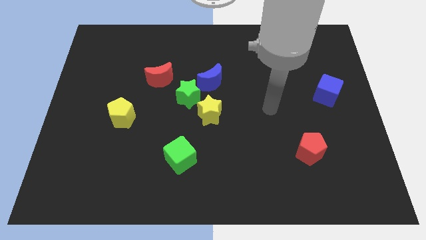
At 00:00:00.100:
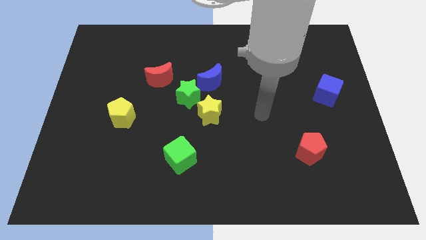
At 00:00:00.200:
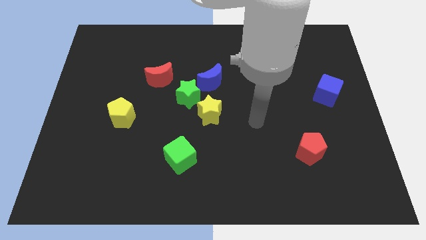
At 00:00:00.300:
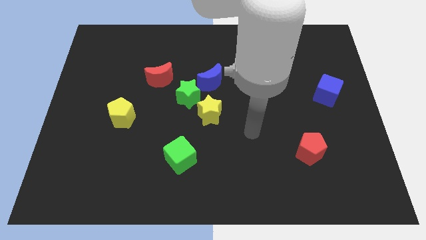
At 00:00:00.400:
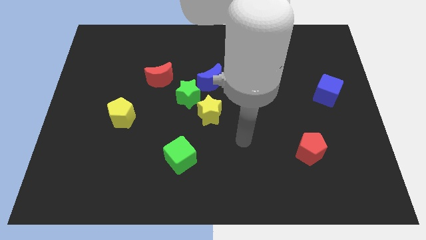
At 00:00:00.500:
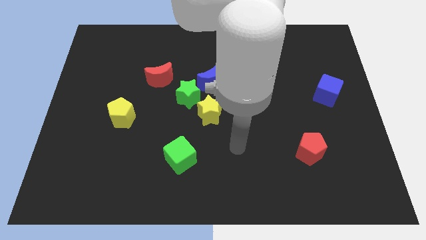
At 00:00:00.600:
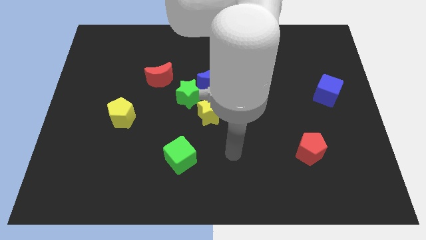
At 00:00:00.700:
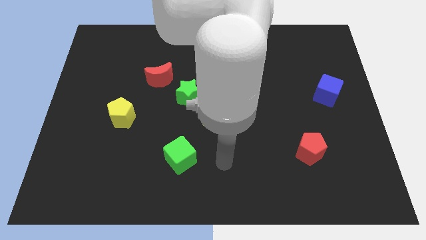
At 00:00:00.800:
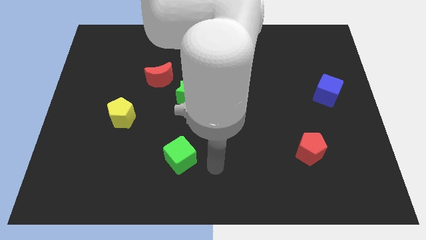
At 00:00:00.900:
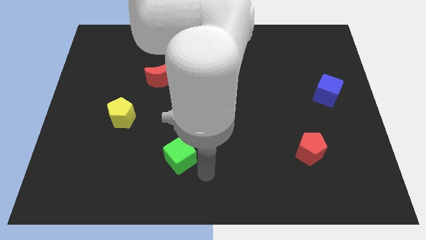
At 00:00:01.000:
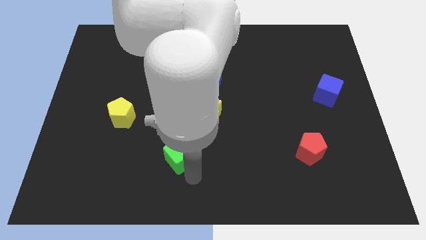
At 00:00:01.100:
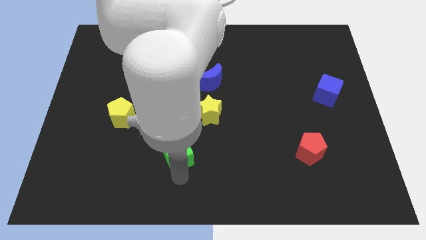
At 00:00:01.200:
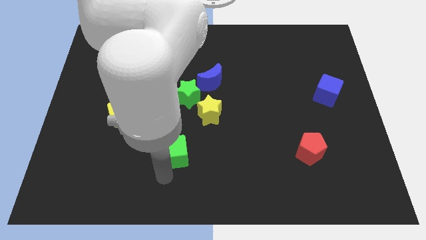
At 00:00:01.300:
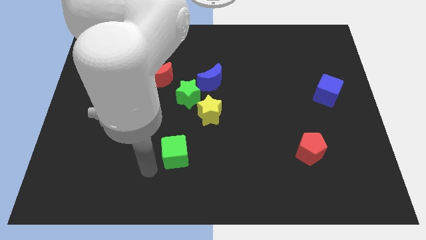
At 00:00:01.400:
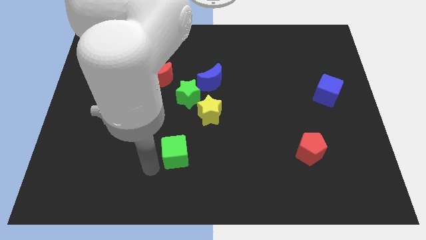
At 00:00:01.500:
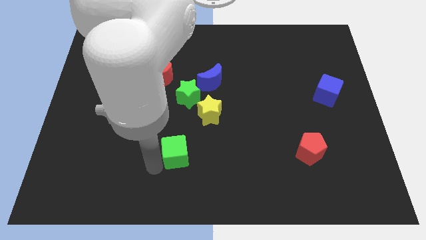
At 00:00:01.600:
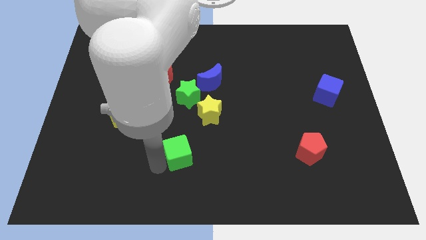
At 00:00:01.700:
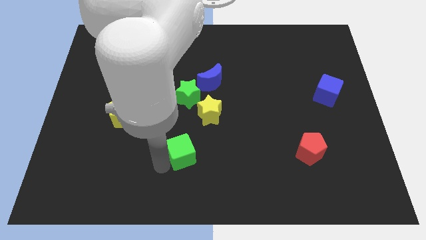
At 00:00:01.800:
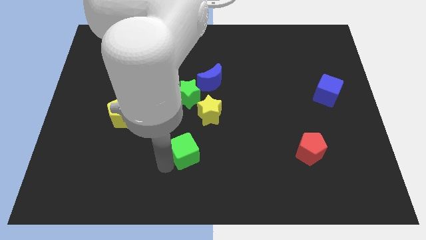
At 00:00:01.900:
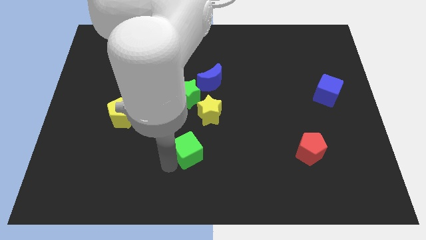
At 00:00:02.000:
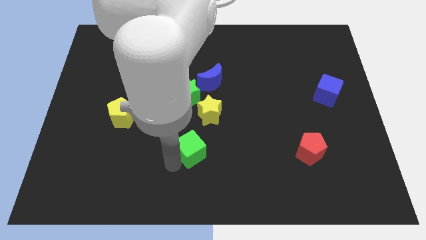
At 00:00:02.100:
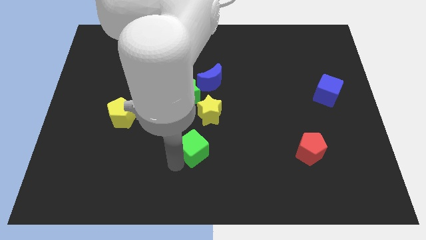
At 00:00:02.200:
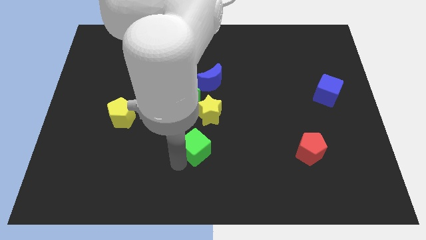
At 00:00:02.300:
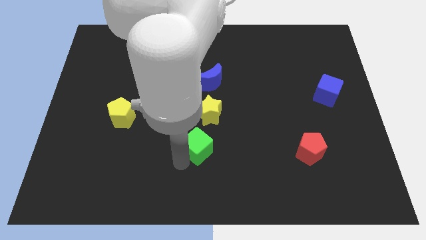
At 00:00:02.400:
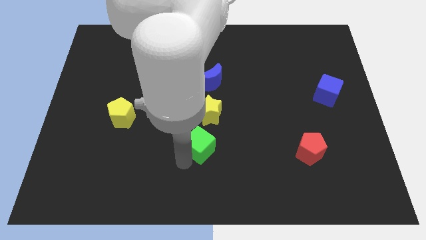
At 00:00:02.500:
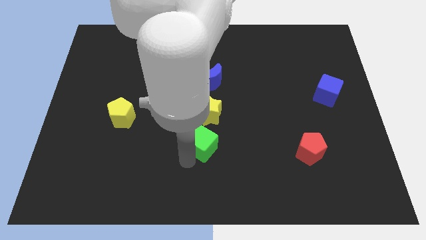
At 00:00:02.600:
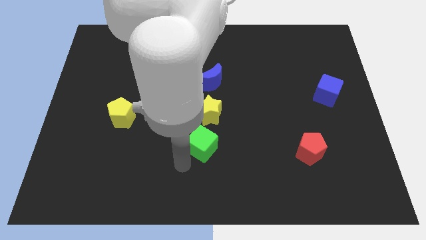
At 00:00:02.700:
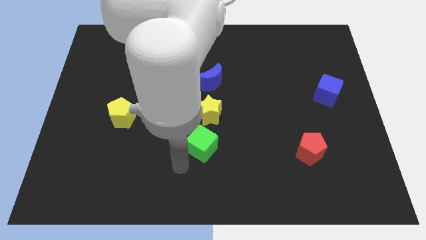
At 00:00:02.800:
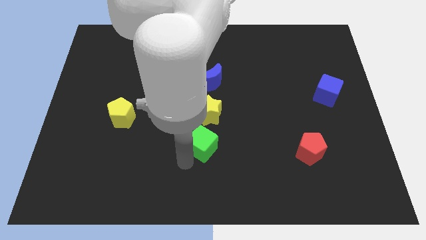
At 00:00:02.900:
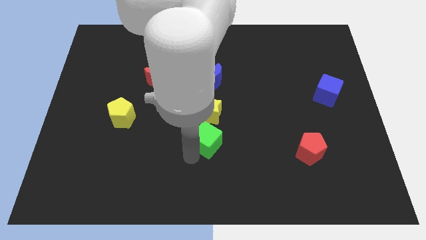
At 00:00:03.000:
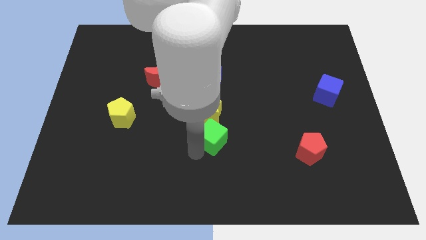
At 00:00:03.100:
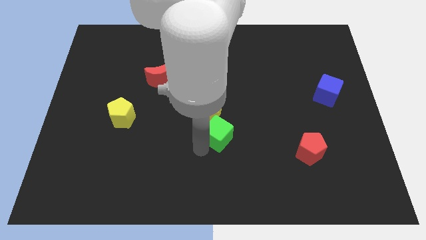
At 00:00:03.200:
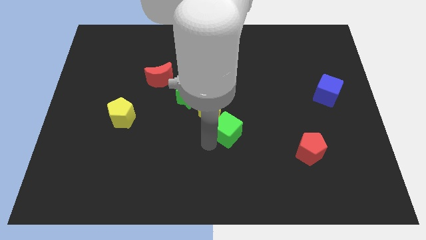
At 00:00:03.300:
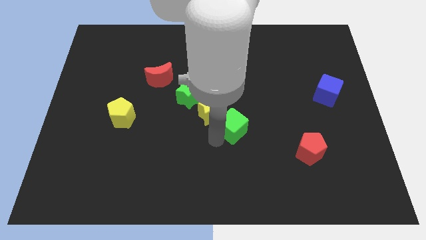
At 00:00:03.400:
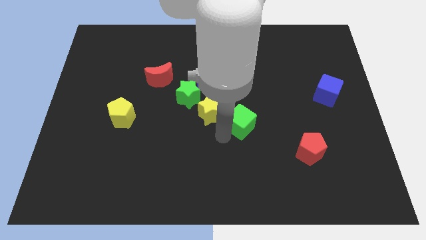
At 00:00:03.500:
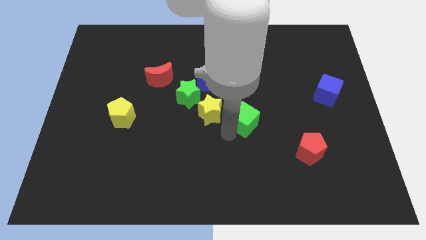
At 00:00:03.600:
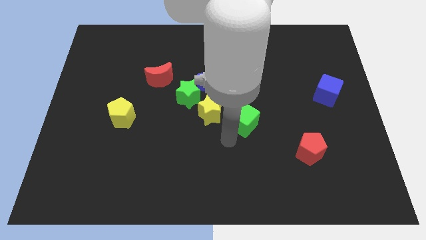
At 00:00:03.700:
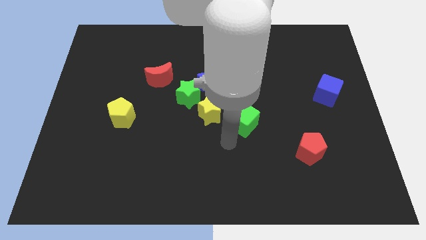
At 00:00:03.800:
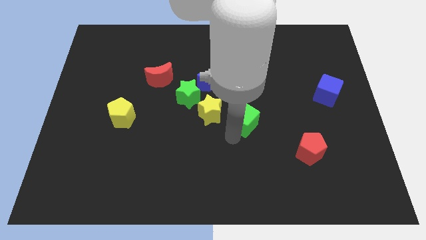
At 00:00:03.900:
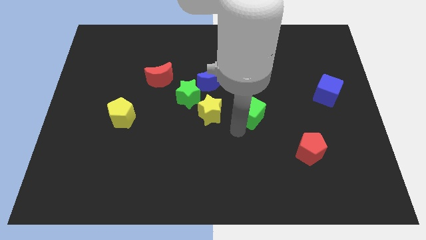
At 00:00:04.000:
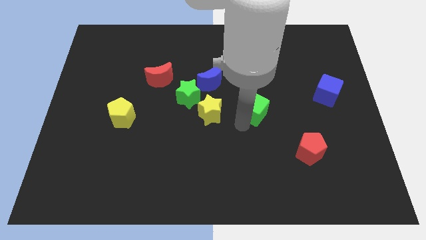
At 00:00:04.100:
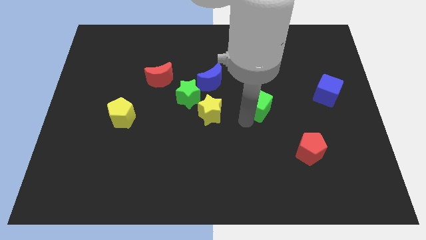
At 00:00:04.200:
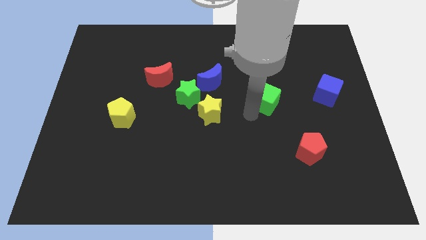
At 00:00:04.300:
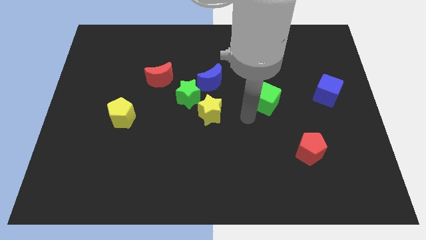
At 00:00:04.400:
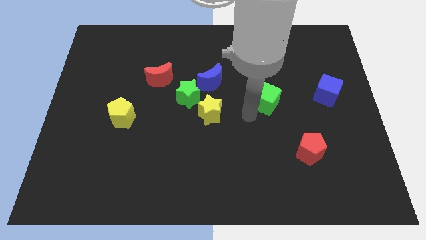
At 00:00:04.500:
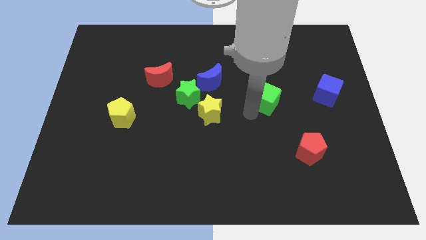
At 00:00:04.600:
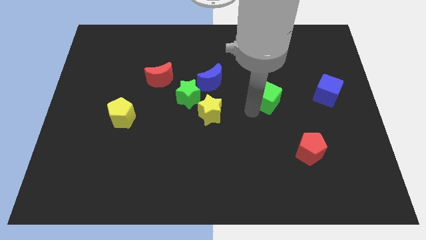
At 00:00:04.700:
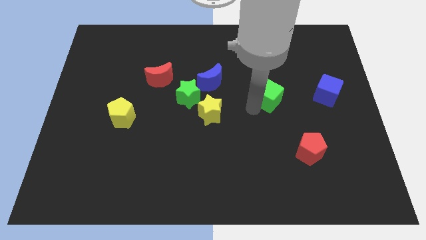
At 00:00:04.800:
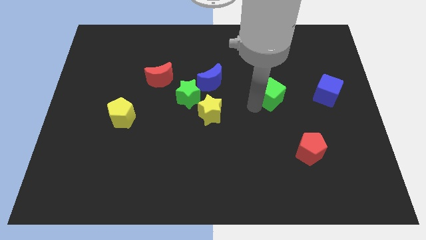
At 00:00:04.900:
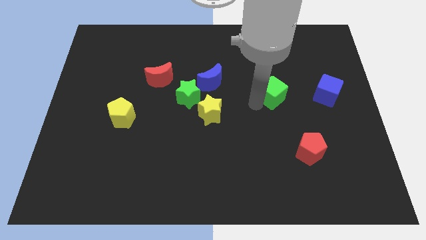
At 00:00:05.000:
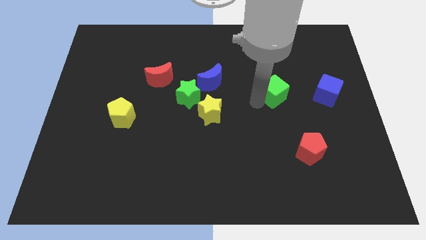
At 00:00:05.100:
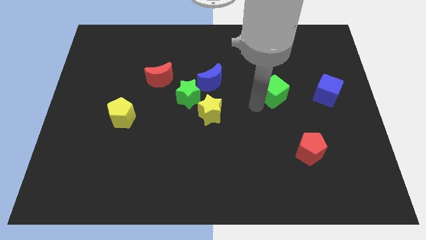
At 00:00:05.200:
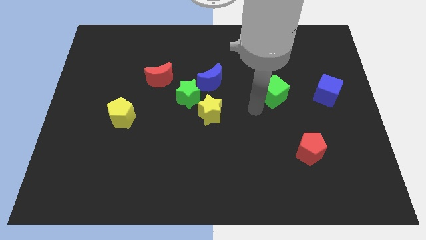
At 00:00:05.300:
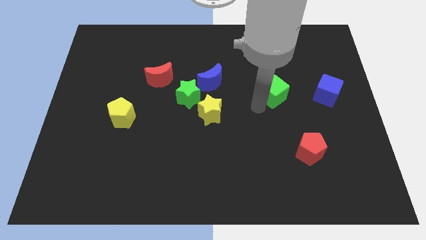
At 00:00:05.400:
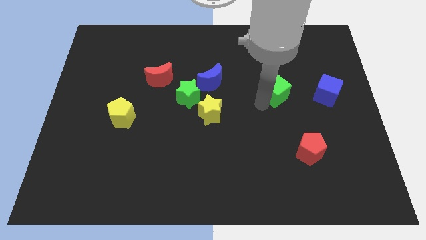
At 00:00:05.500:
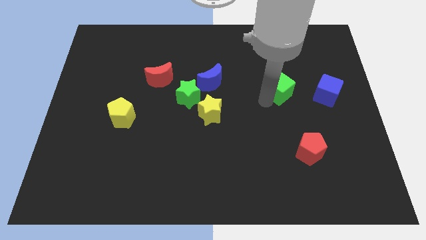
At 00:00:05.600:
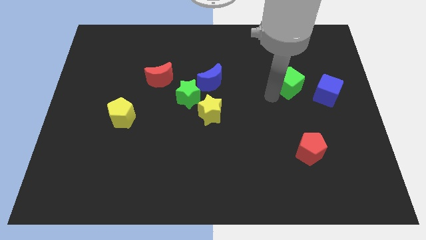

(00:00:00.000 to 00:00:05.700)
push the green cube diagonally up and to the left of the blue cube
